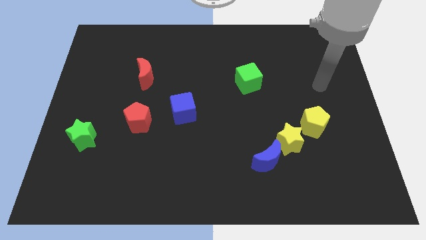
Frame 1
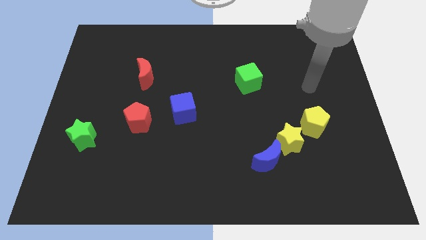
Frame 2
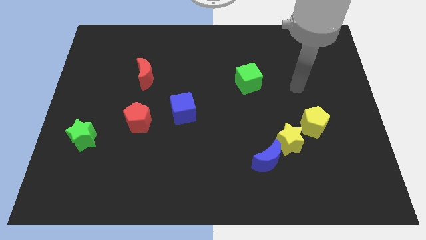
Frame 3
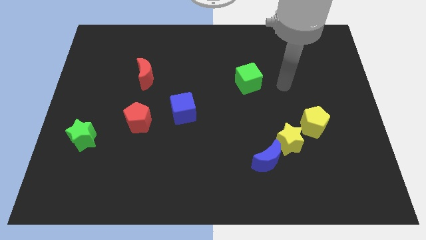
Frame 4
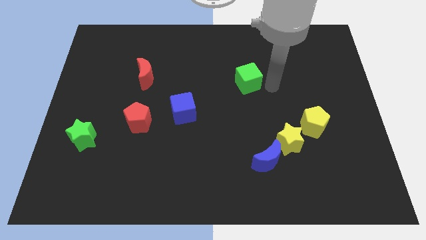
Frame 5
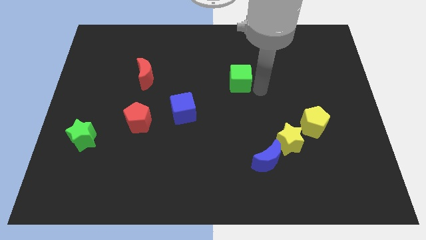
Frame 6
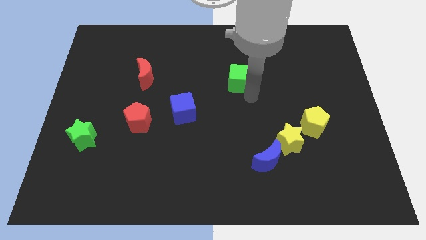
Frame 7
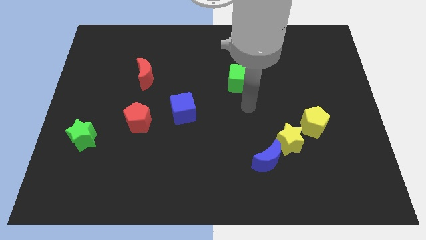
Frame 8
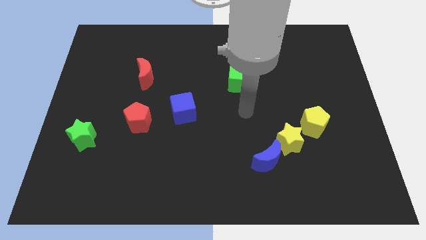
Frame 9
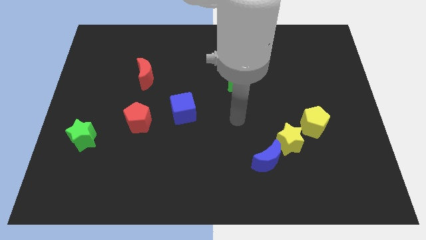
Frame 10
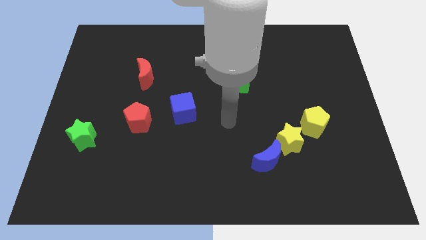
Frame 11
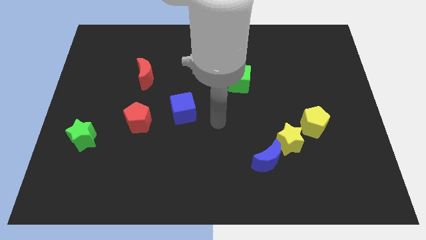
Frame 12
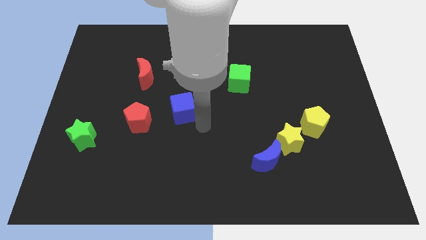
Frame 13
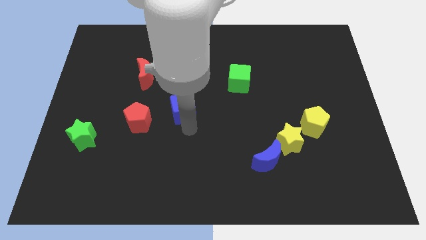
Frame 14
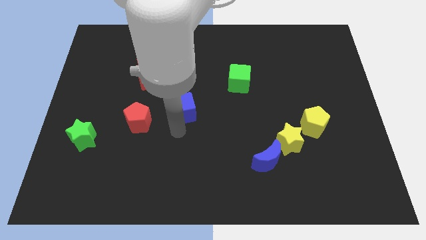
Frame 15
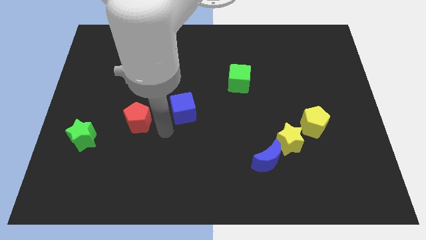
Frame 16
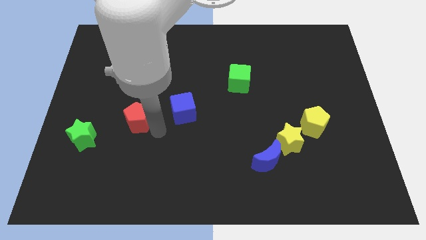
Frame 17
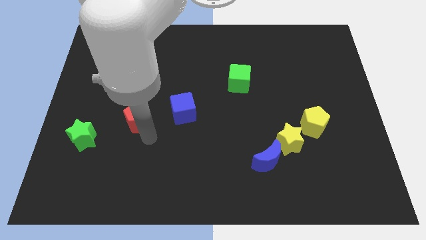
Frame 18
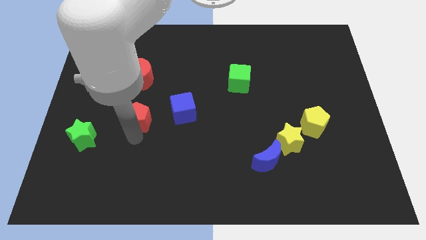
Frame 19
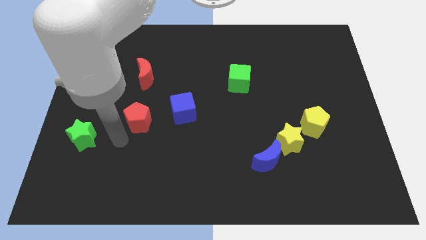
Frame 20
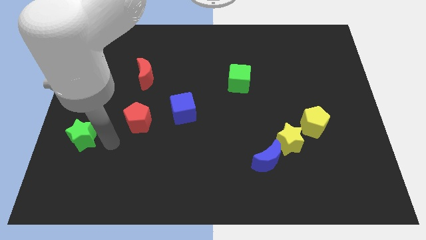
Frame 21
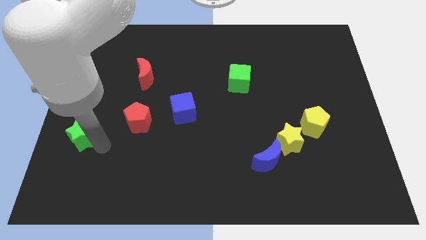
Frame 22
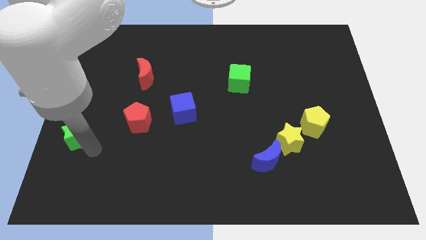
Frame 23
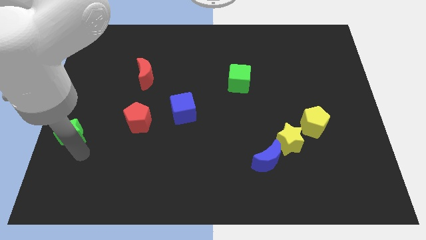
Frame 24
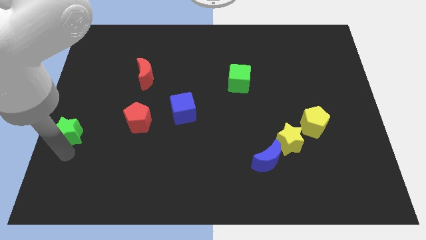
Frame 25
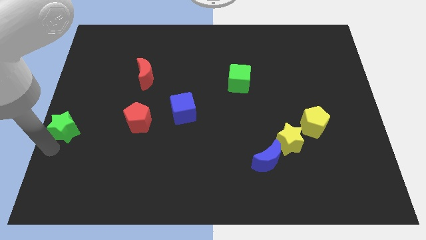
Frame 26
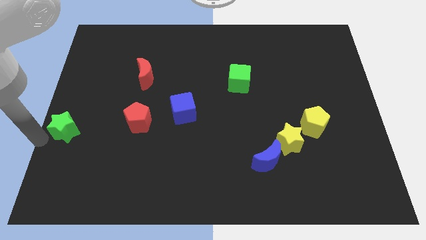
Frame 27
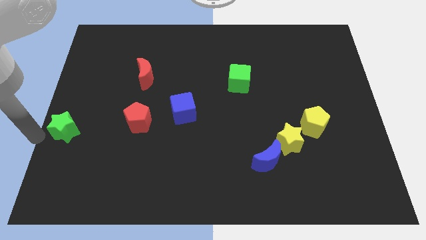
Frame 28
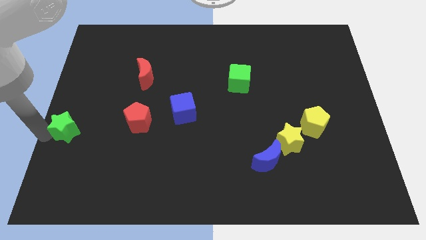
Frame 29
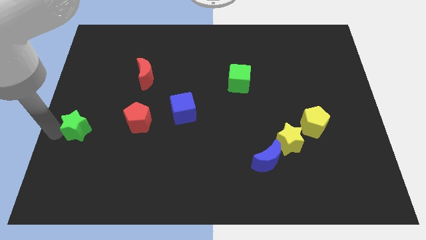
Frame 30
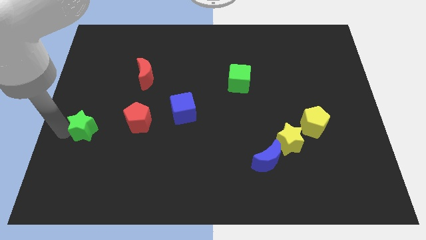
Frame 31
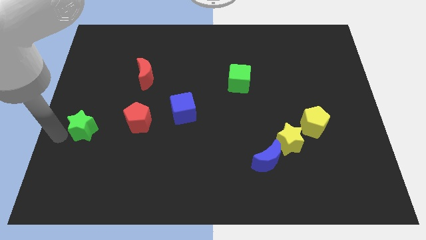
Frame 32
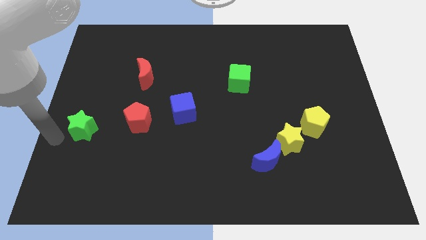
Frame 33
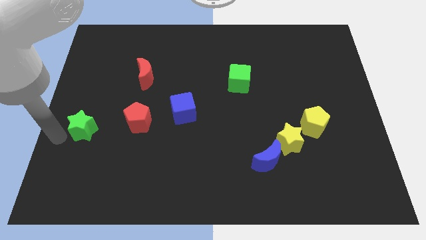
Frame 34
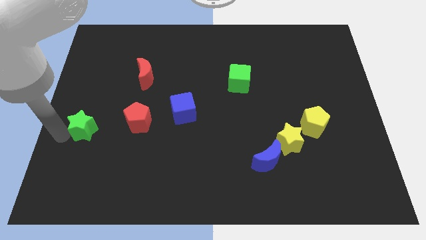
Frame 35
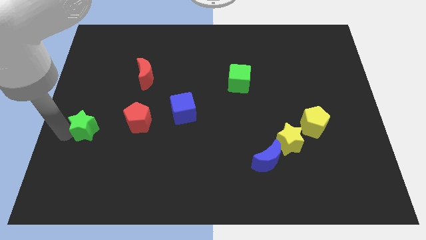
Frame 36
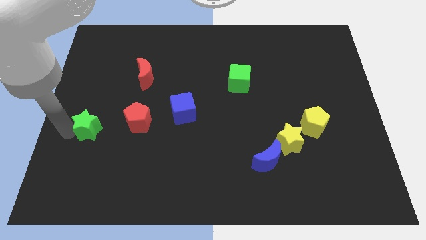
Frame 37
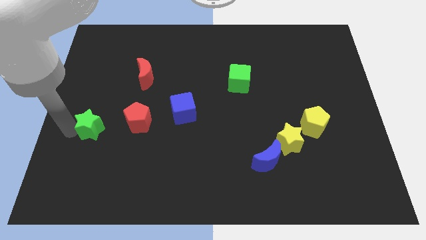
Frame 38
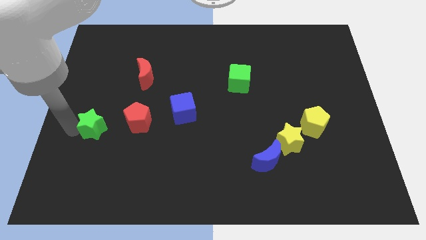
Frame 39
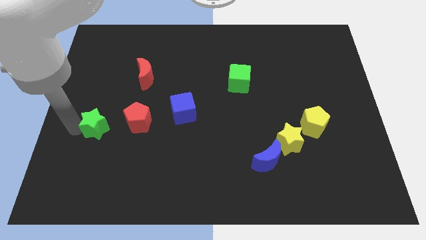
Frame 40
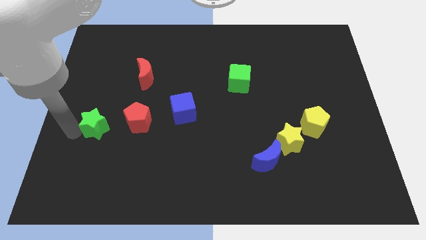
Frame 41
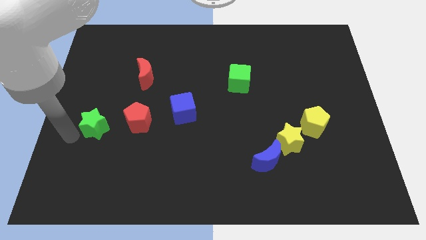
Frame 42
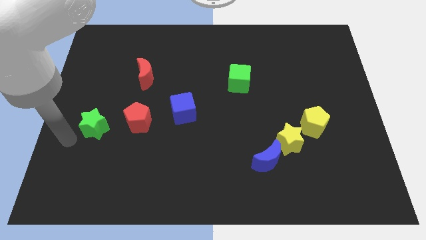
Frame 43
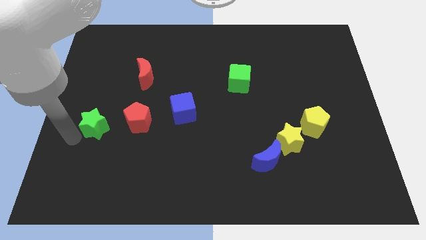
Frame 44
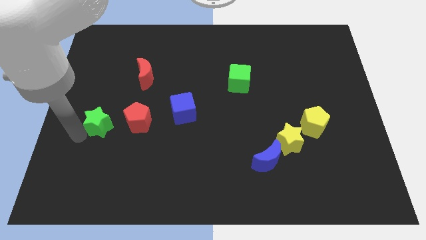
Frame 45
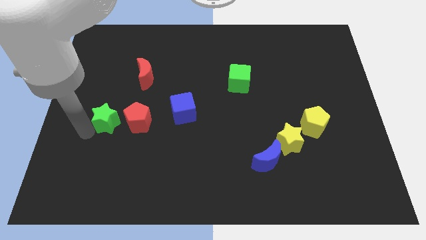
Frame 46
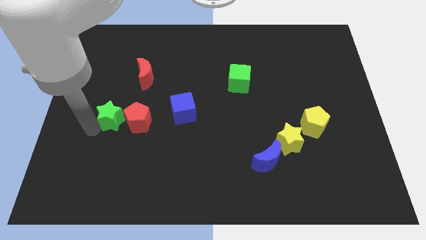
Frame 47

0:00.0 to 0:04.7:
move the green star up and to the right diagonally a little

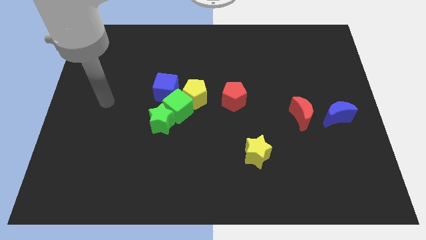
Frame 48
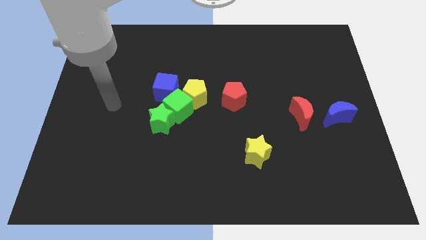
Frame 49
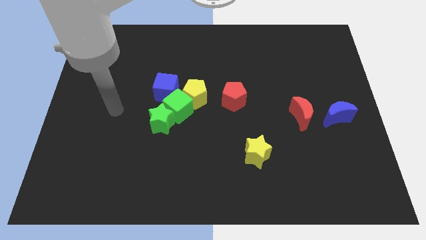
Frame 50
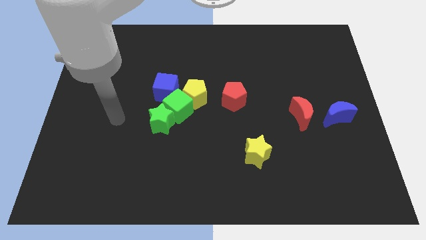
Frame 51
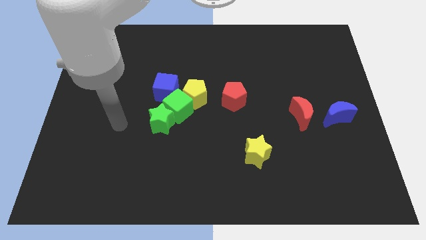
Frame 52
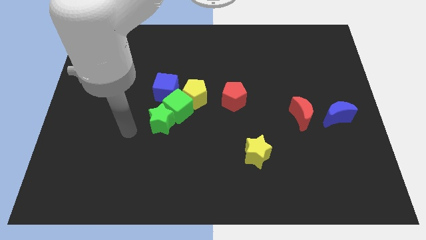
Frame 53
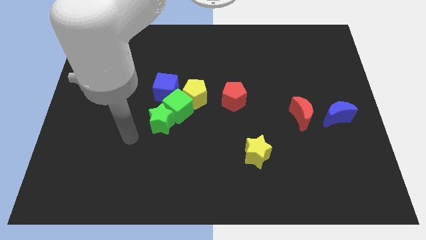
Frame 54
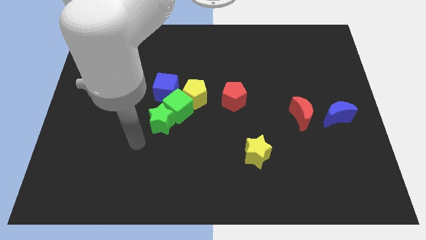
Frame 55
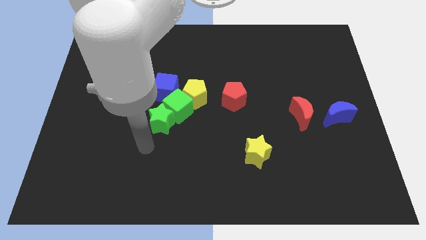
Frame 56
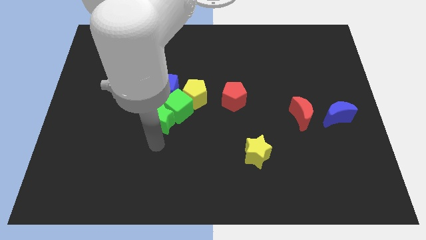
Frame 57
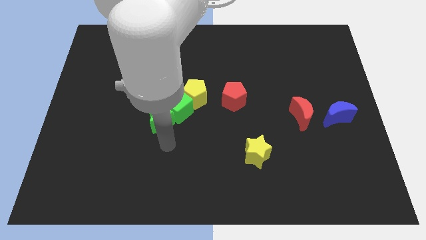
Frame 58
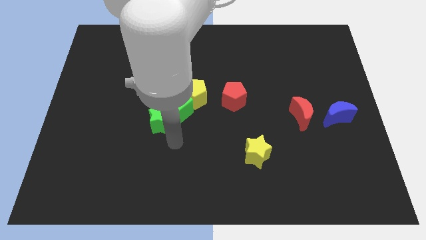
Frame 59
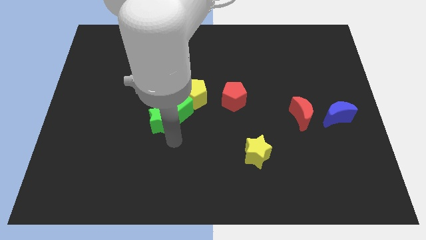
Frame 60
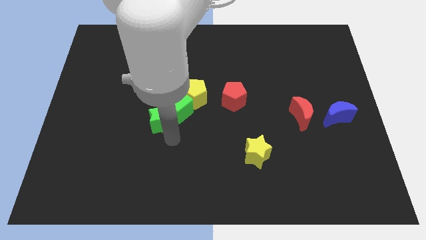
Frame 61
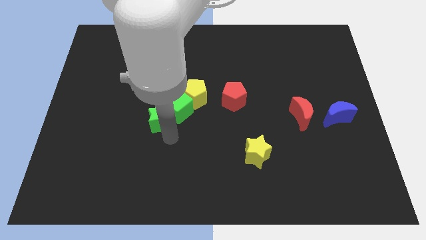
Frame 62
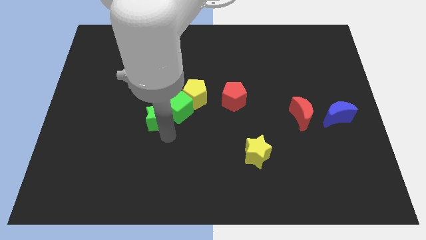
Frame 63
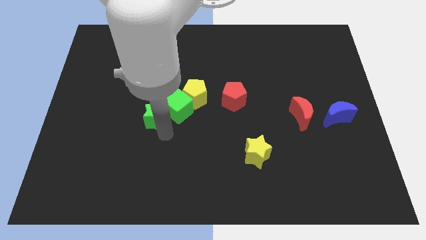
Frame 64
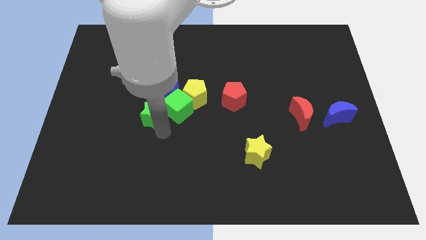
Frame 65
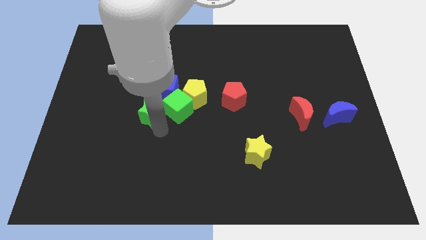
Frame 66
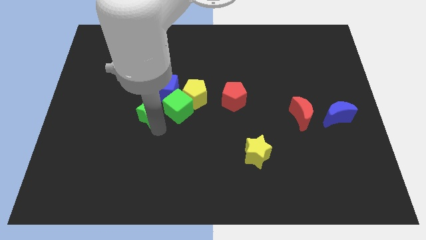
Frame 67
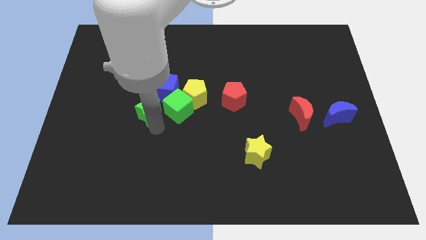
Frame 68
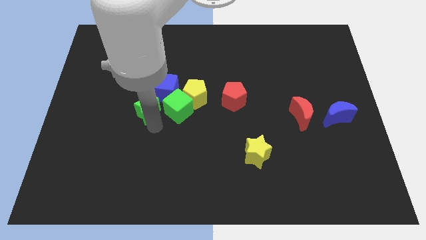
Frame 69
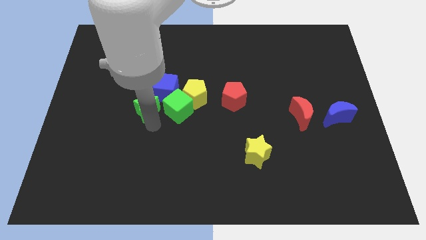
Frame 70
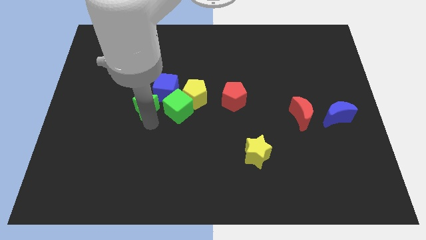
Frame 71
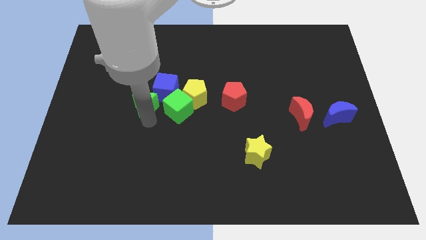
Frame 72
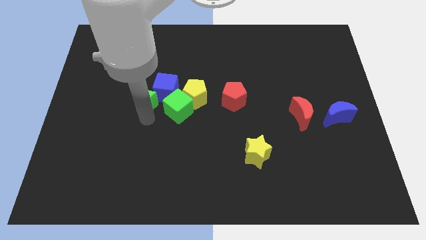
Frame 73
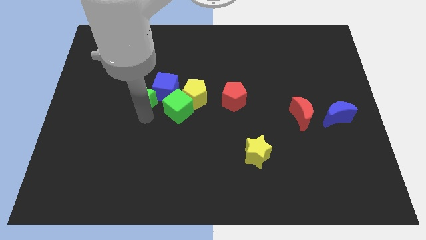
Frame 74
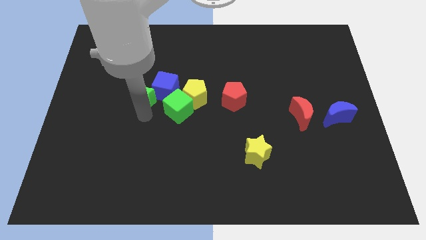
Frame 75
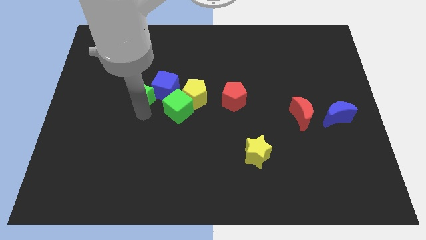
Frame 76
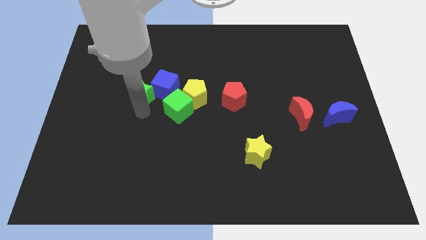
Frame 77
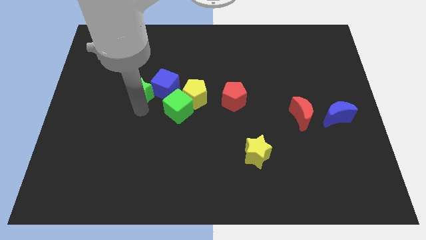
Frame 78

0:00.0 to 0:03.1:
slightly push the green star up

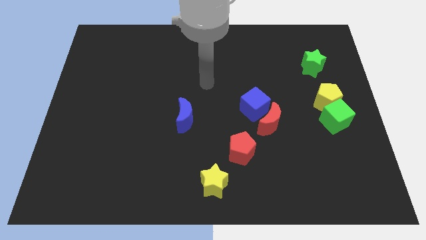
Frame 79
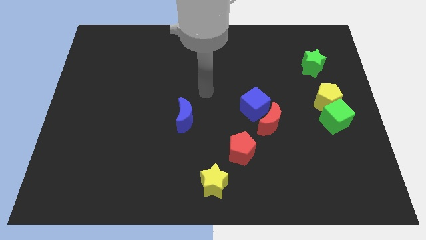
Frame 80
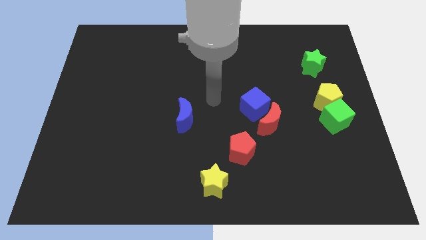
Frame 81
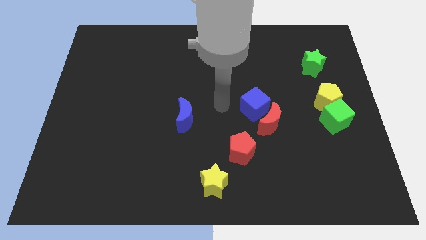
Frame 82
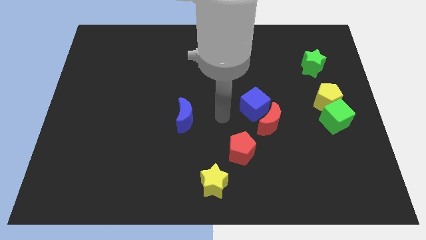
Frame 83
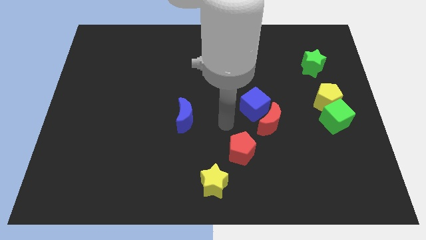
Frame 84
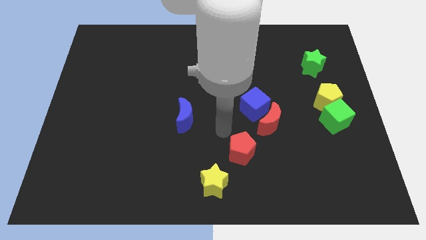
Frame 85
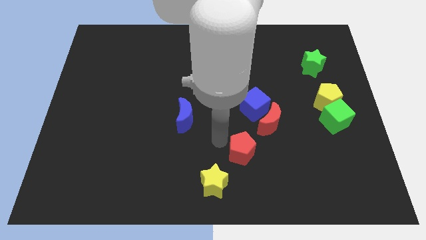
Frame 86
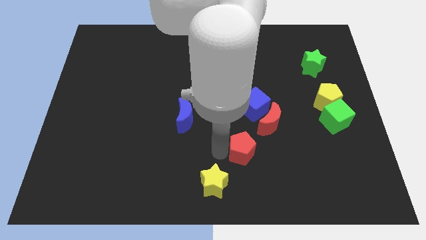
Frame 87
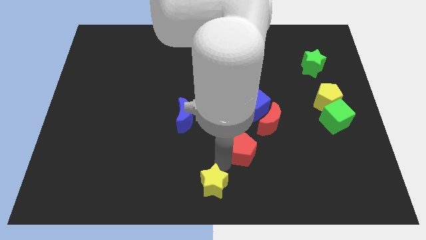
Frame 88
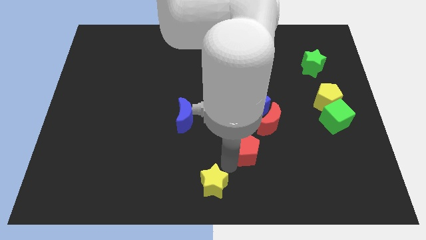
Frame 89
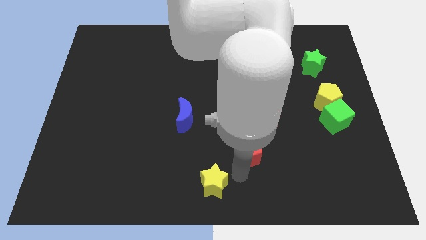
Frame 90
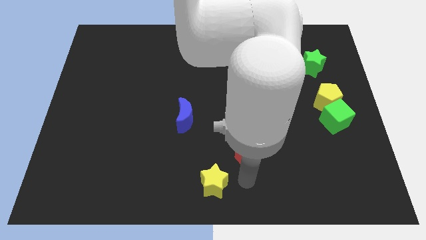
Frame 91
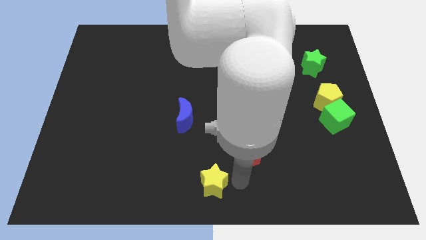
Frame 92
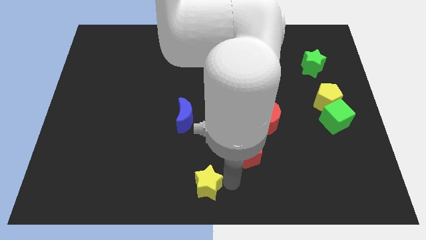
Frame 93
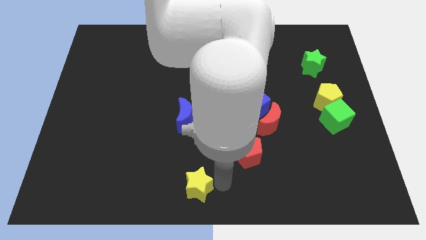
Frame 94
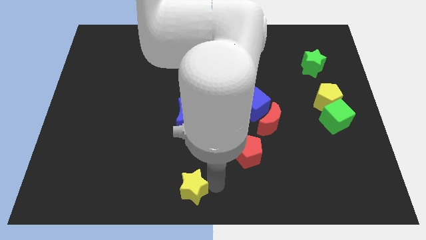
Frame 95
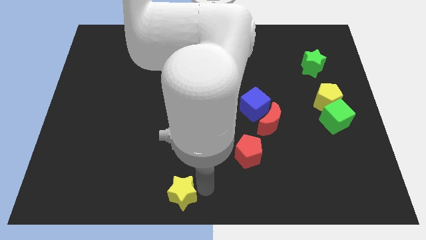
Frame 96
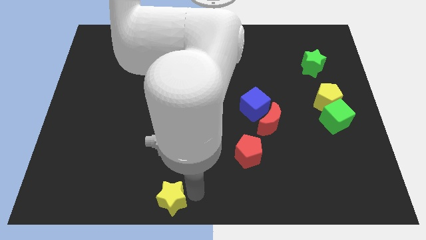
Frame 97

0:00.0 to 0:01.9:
slightly slide the yellow star to the left
